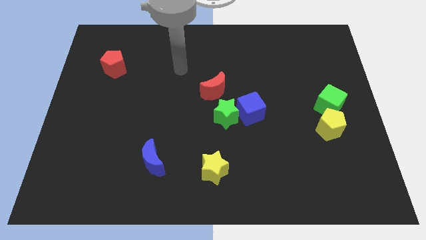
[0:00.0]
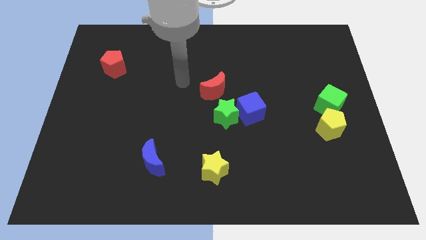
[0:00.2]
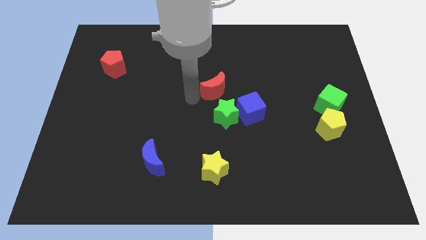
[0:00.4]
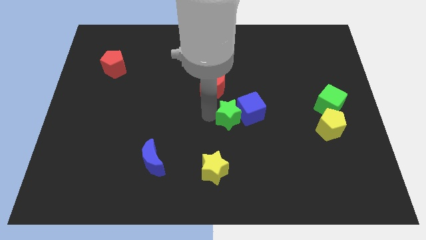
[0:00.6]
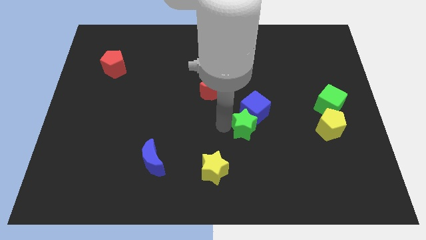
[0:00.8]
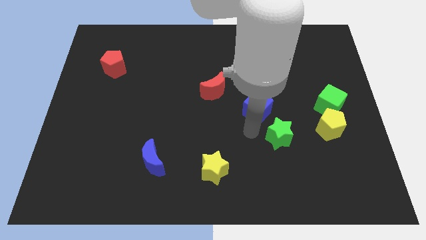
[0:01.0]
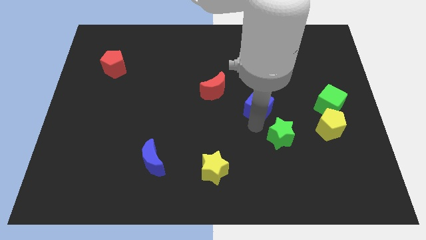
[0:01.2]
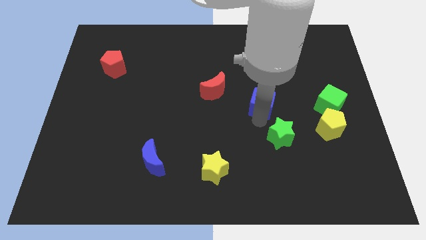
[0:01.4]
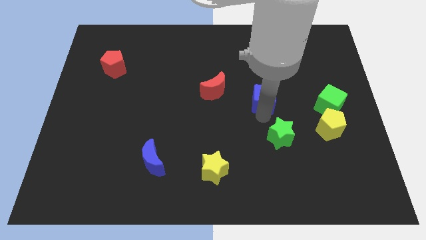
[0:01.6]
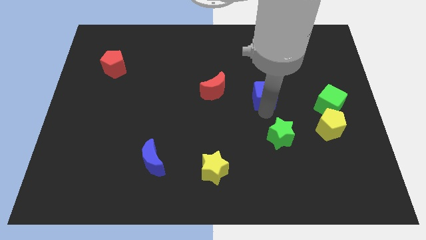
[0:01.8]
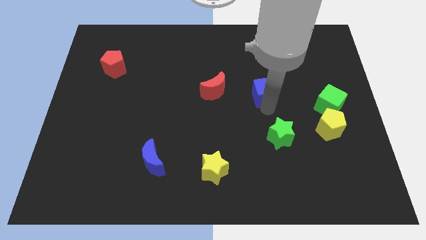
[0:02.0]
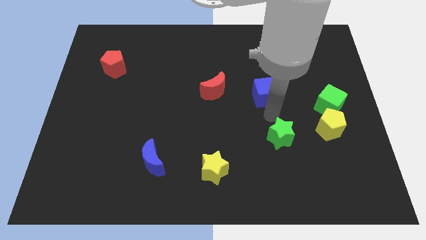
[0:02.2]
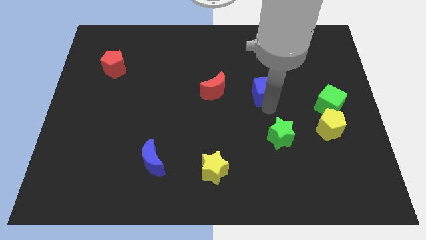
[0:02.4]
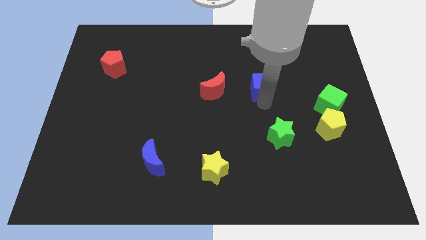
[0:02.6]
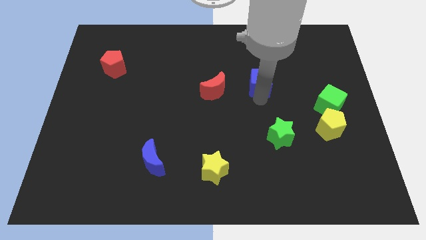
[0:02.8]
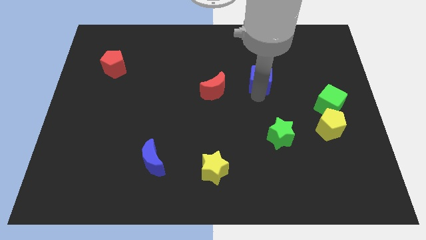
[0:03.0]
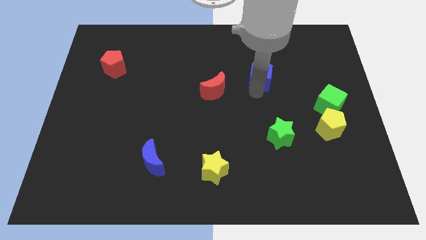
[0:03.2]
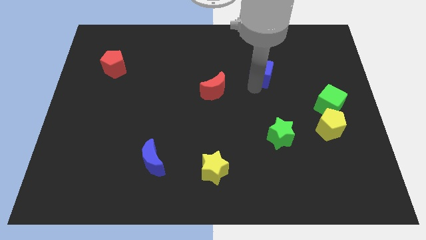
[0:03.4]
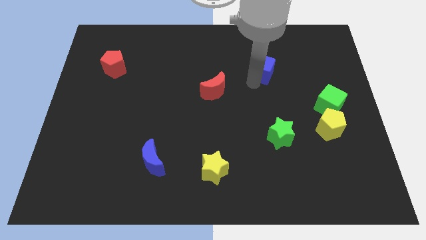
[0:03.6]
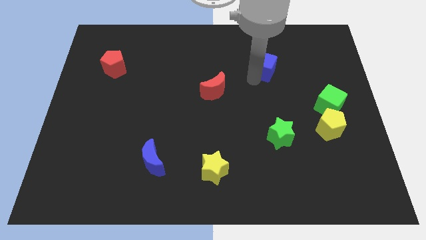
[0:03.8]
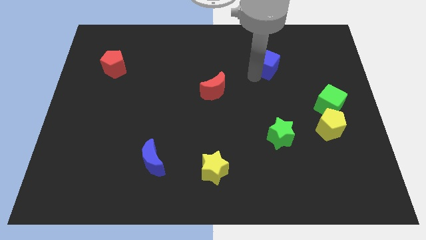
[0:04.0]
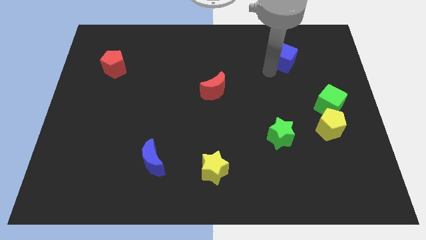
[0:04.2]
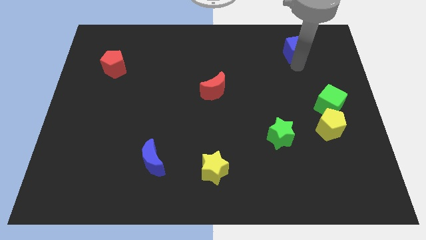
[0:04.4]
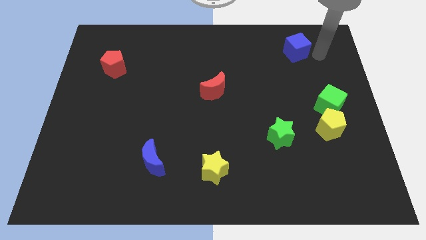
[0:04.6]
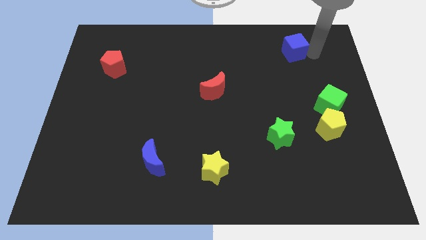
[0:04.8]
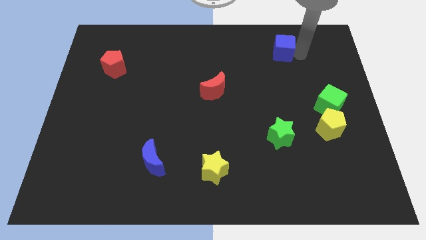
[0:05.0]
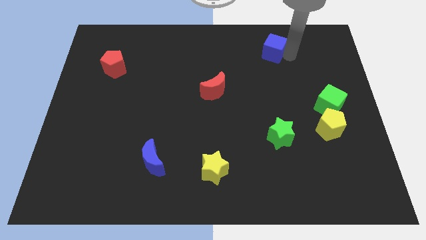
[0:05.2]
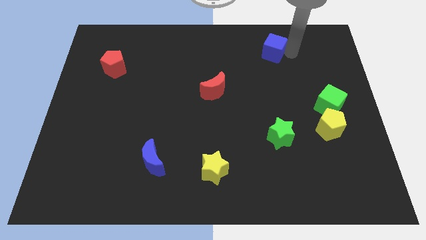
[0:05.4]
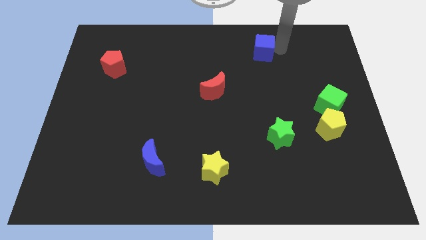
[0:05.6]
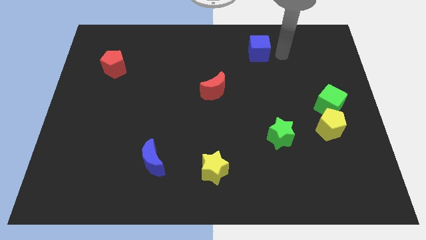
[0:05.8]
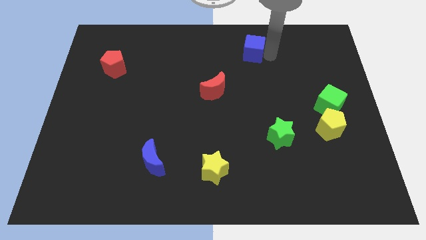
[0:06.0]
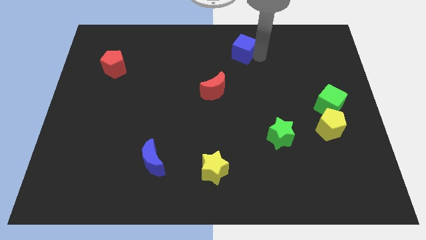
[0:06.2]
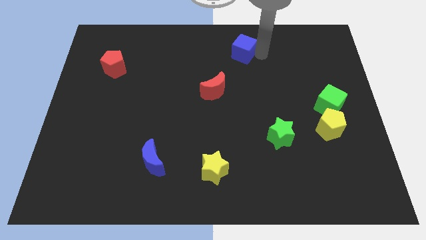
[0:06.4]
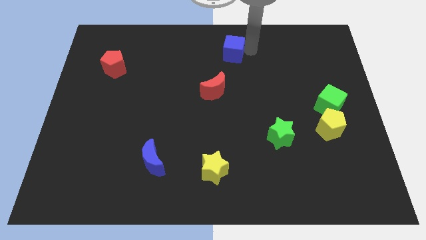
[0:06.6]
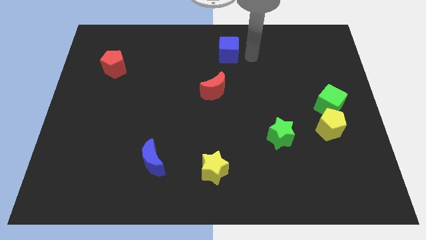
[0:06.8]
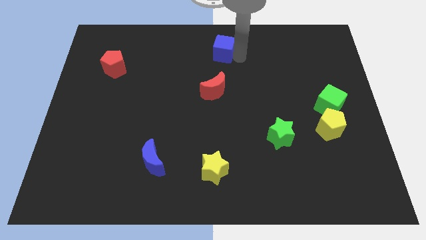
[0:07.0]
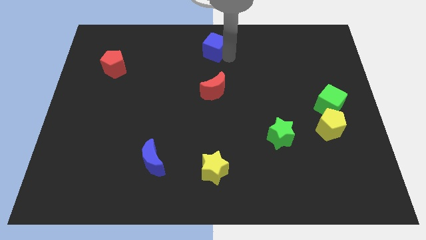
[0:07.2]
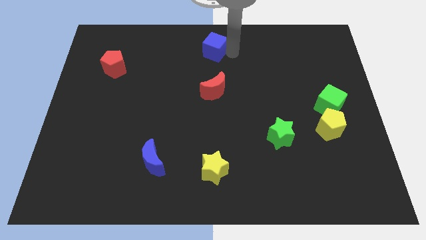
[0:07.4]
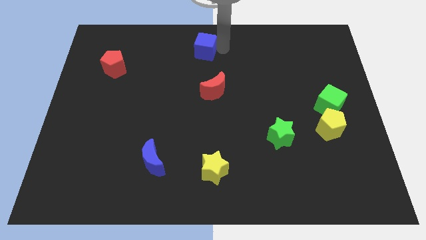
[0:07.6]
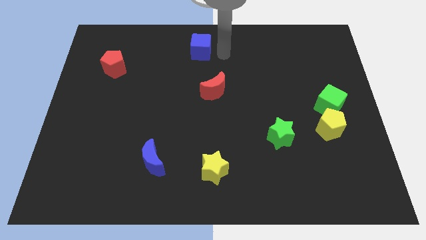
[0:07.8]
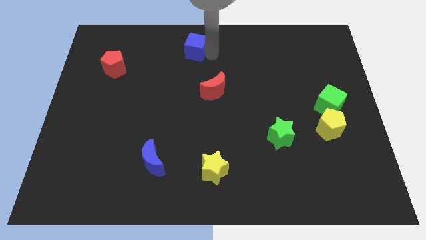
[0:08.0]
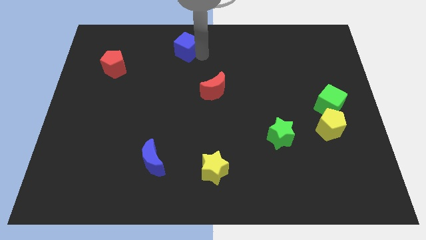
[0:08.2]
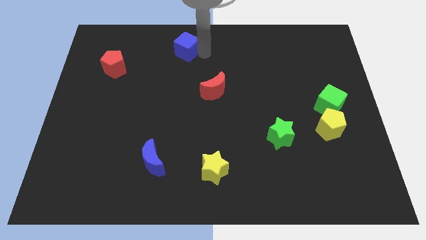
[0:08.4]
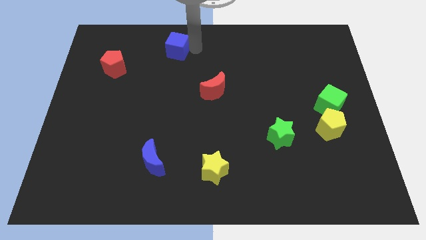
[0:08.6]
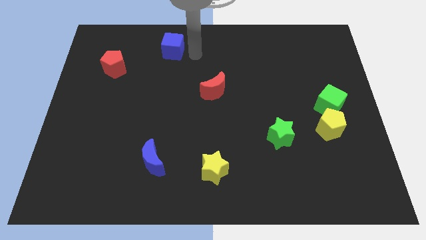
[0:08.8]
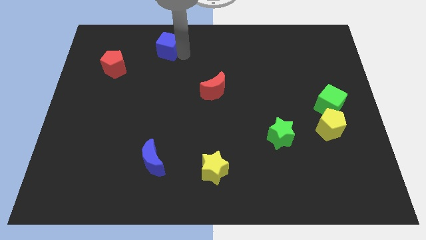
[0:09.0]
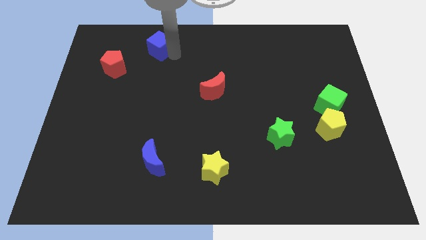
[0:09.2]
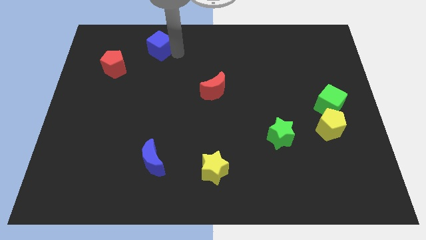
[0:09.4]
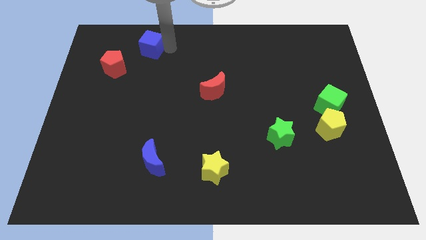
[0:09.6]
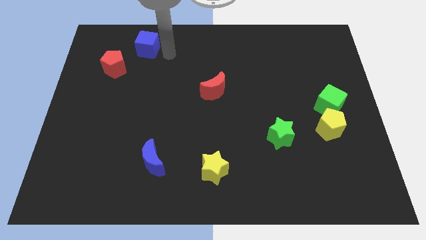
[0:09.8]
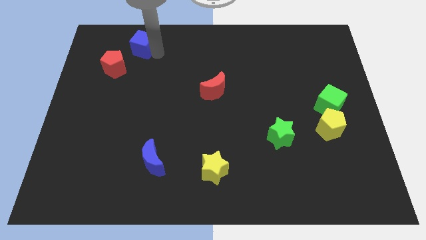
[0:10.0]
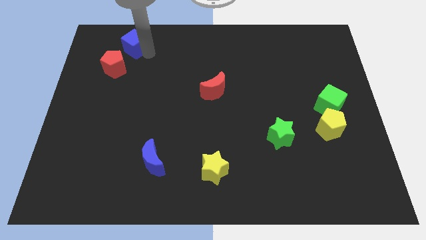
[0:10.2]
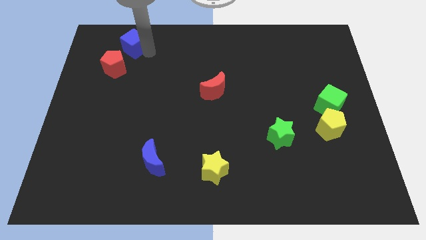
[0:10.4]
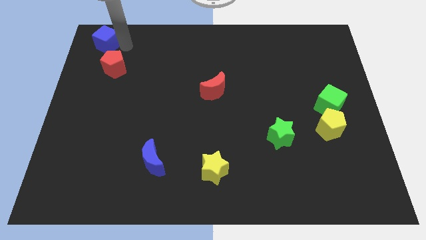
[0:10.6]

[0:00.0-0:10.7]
push the blue cube to the top left corner
